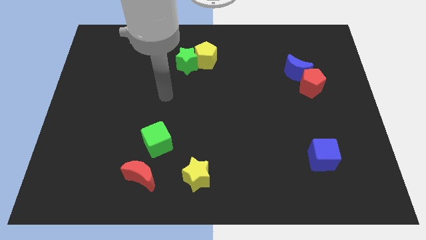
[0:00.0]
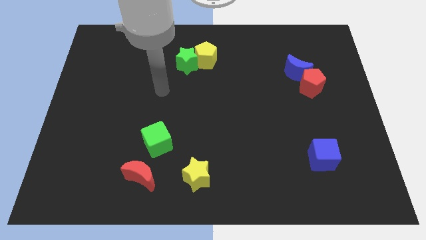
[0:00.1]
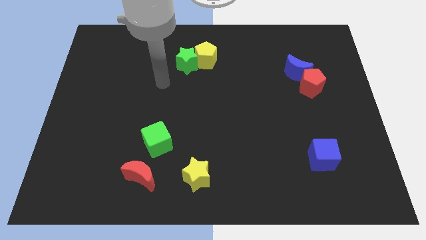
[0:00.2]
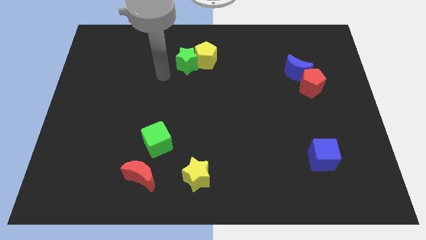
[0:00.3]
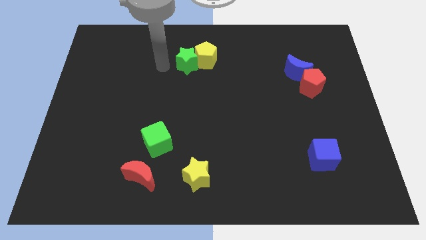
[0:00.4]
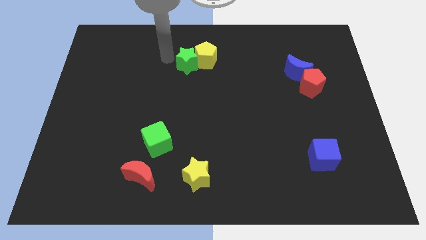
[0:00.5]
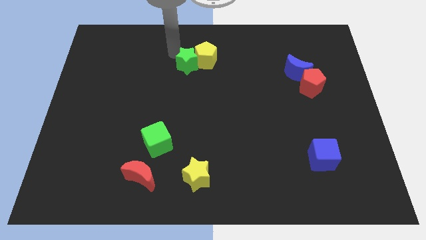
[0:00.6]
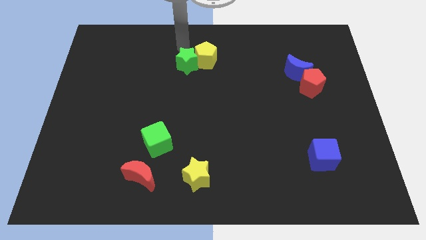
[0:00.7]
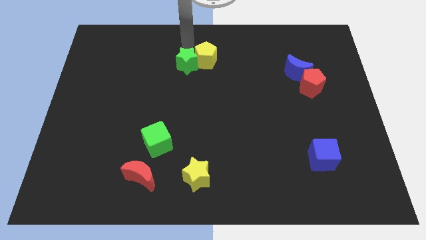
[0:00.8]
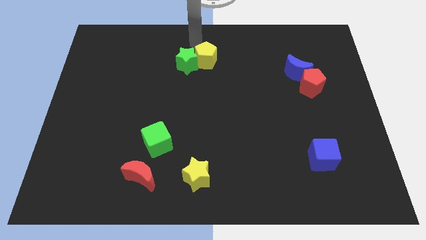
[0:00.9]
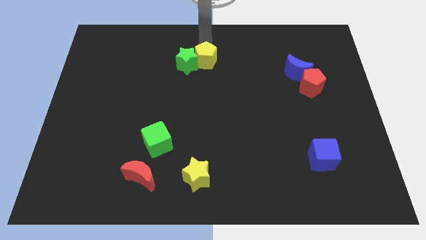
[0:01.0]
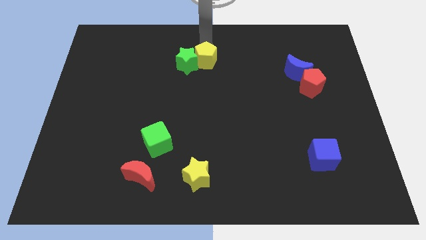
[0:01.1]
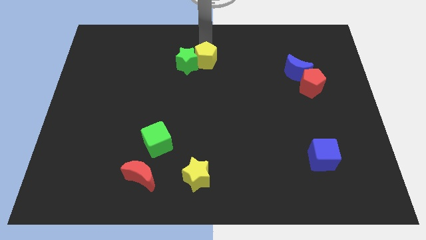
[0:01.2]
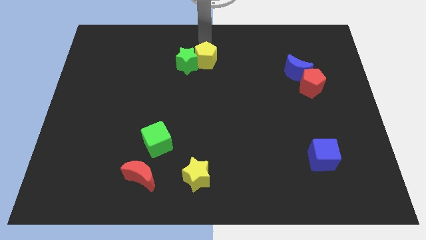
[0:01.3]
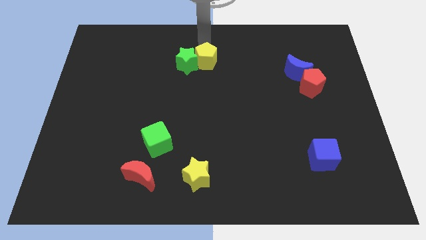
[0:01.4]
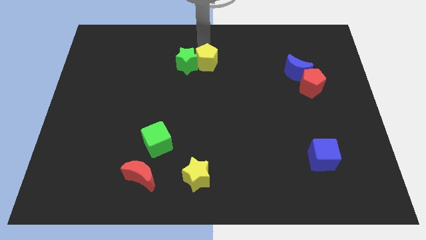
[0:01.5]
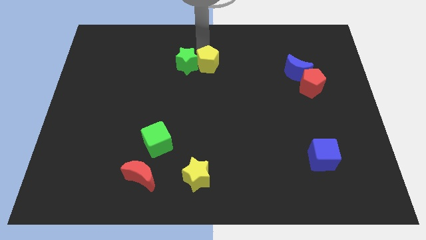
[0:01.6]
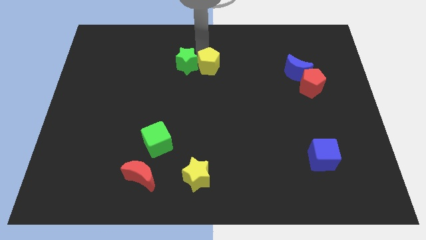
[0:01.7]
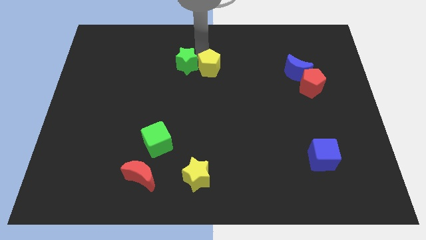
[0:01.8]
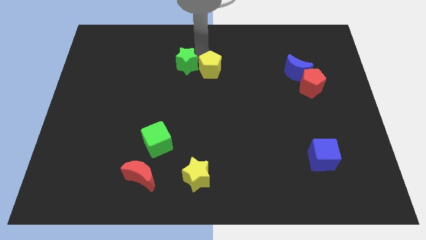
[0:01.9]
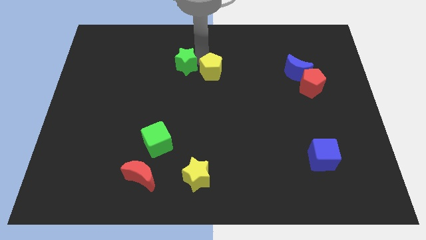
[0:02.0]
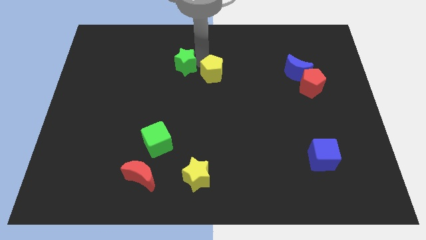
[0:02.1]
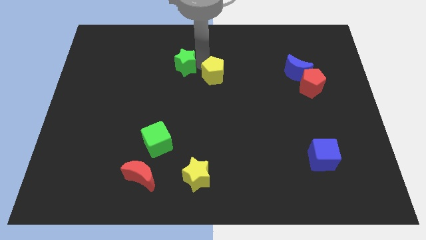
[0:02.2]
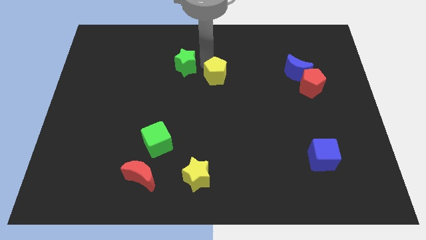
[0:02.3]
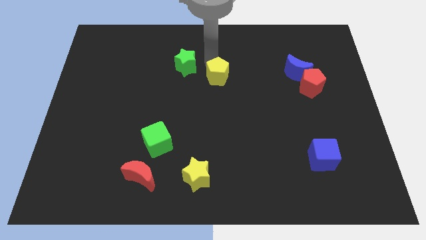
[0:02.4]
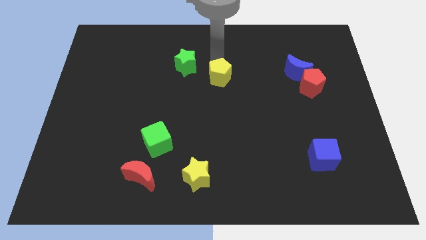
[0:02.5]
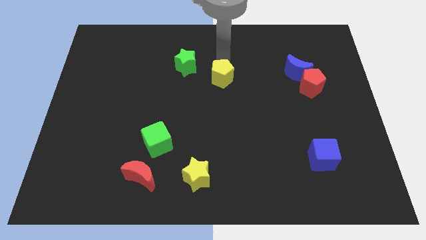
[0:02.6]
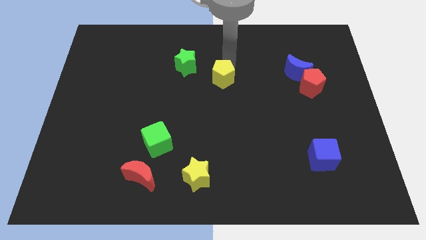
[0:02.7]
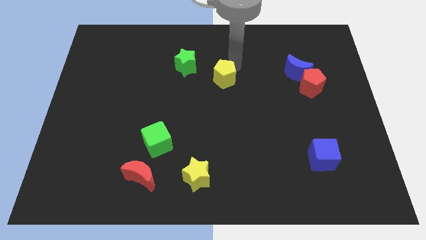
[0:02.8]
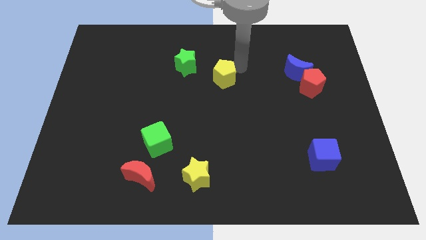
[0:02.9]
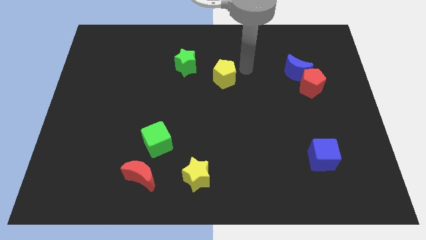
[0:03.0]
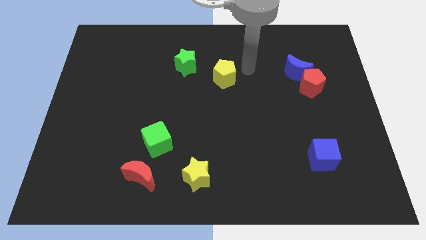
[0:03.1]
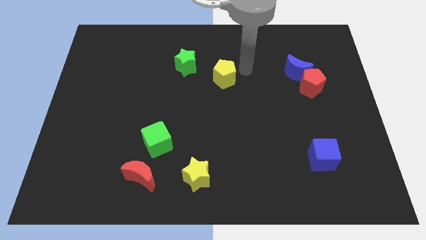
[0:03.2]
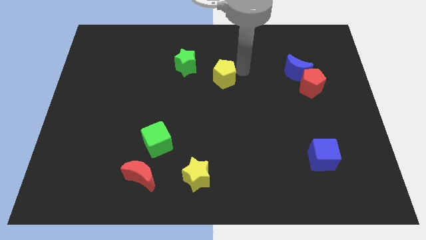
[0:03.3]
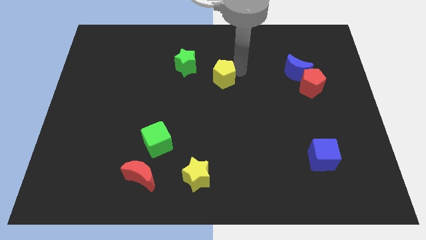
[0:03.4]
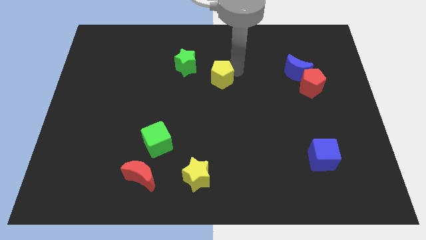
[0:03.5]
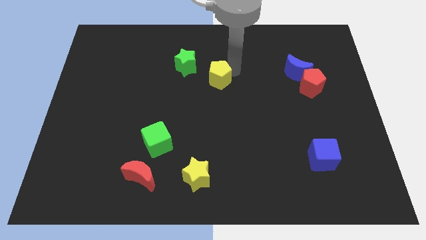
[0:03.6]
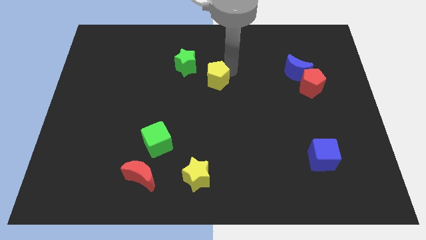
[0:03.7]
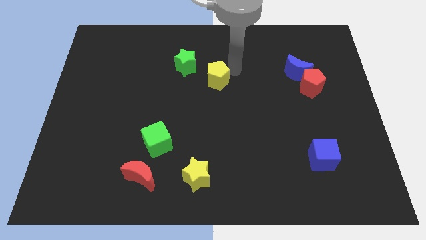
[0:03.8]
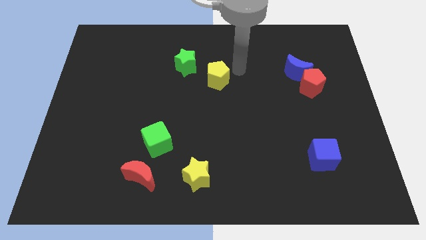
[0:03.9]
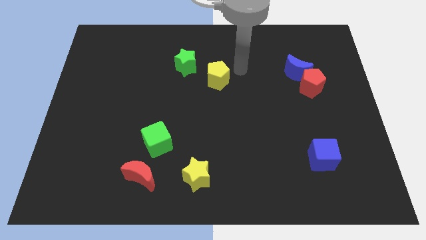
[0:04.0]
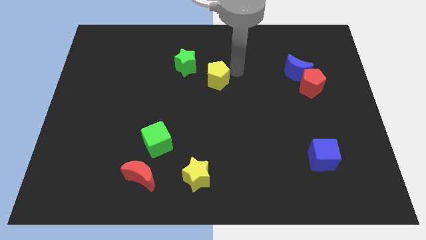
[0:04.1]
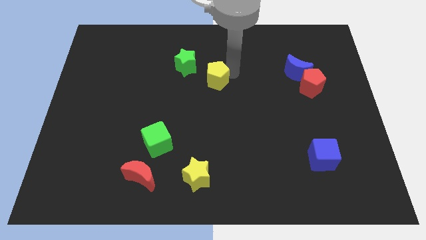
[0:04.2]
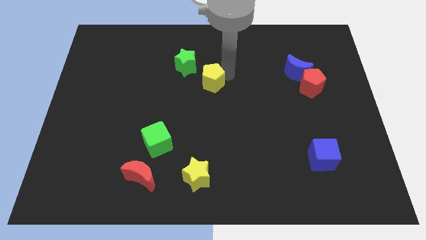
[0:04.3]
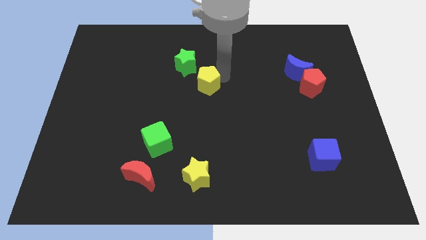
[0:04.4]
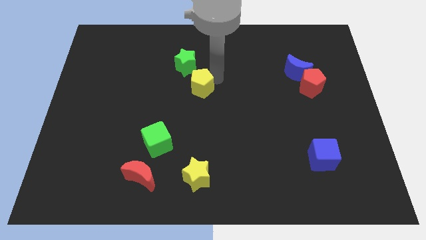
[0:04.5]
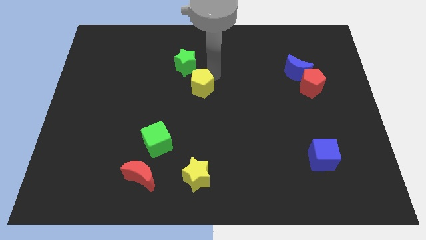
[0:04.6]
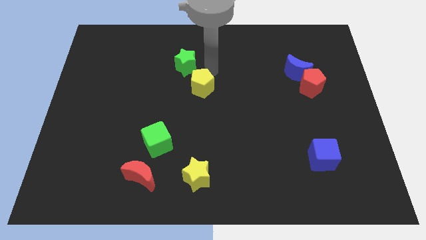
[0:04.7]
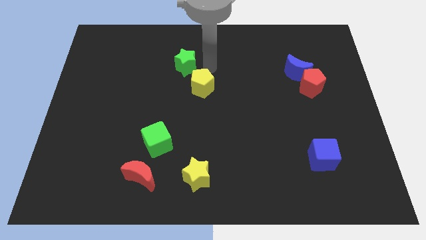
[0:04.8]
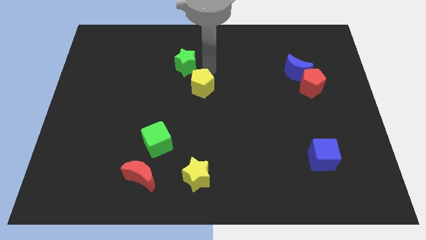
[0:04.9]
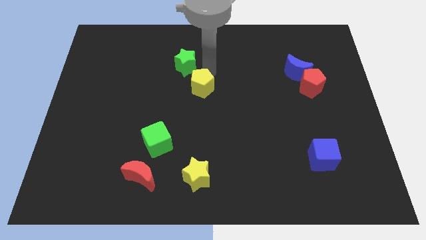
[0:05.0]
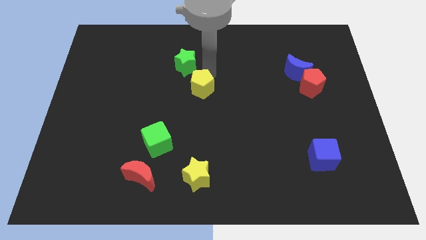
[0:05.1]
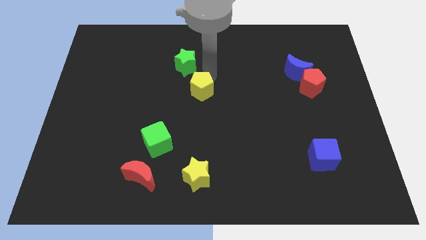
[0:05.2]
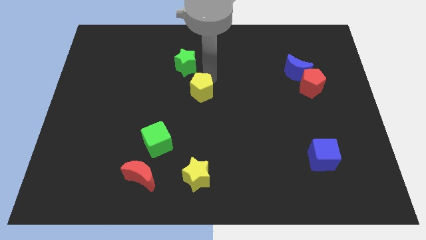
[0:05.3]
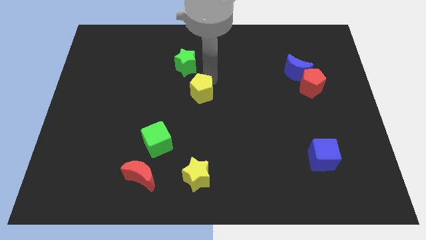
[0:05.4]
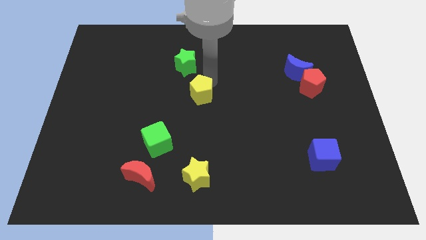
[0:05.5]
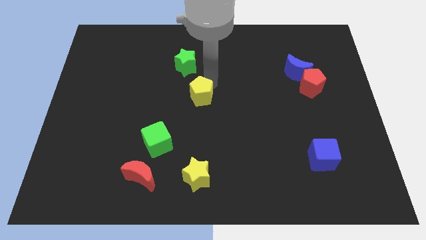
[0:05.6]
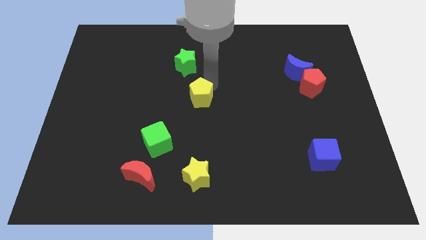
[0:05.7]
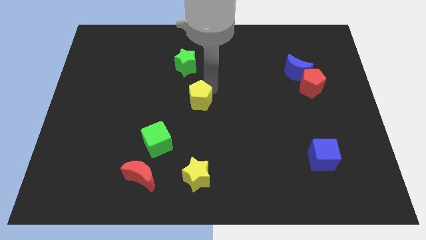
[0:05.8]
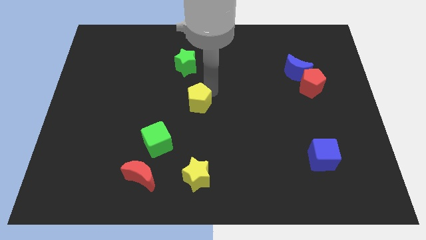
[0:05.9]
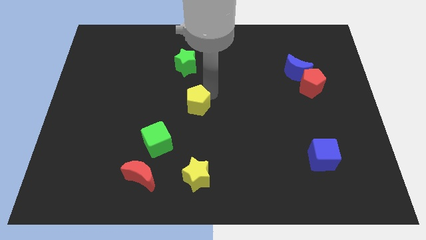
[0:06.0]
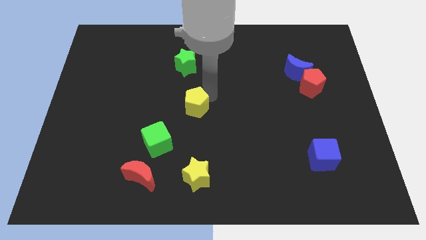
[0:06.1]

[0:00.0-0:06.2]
put the yellow pentagon to the top right of the green cube

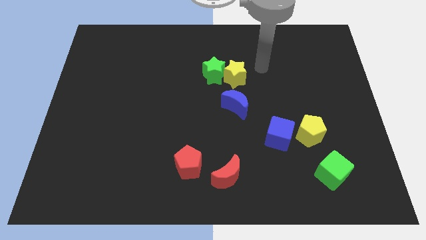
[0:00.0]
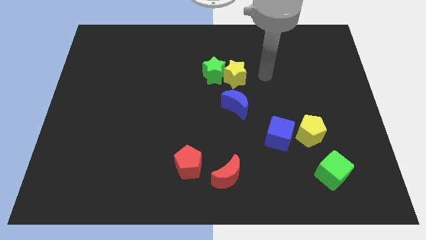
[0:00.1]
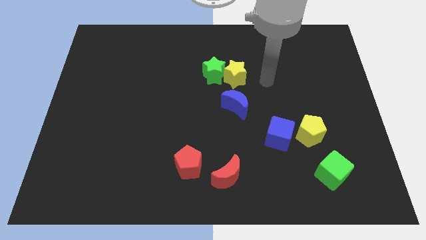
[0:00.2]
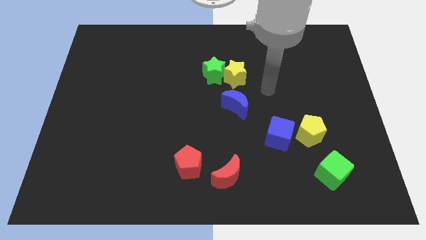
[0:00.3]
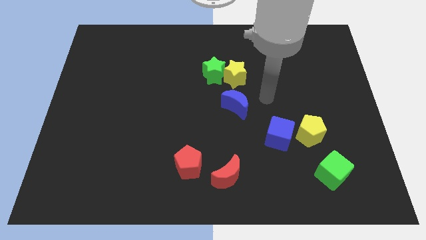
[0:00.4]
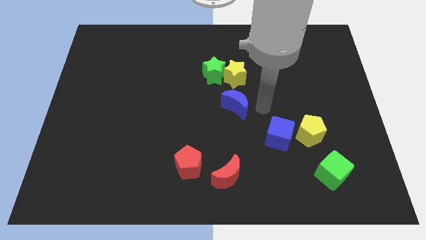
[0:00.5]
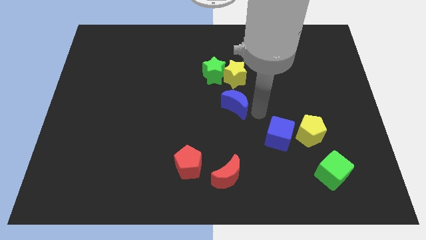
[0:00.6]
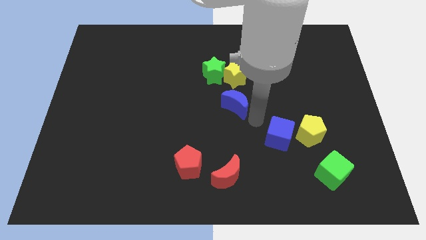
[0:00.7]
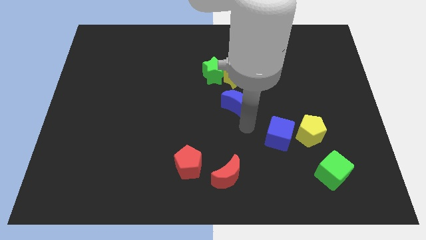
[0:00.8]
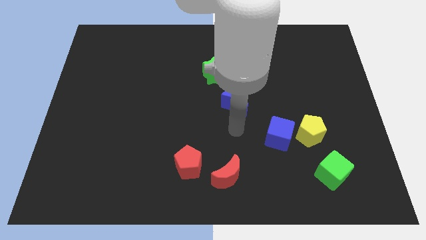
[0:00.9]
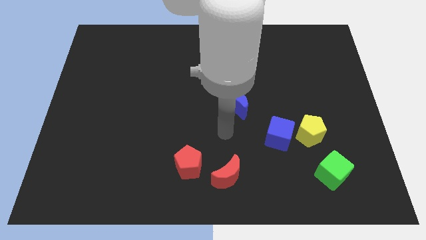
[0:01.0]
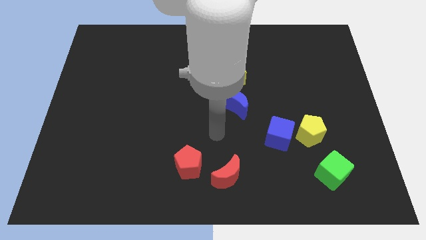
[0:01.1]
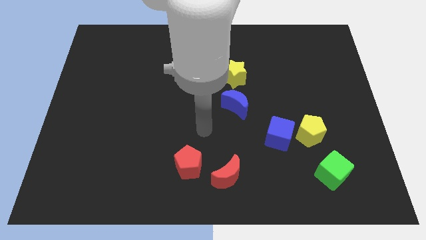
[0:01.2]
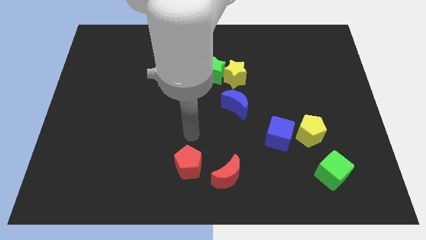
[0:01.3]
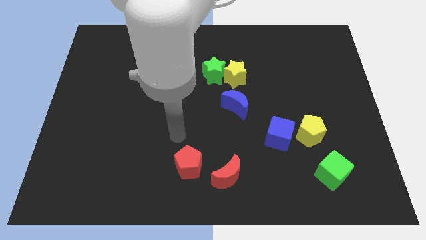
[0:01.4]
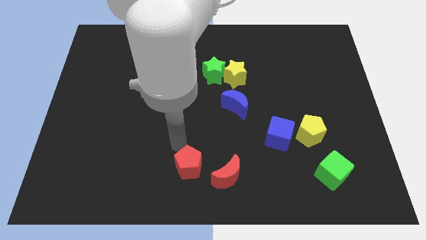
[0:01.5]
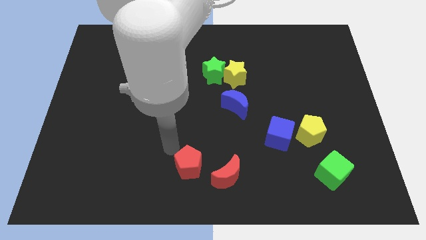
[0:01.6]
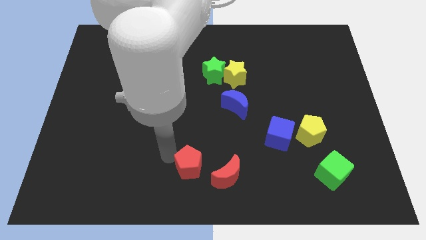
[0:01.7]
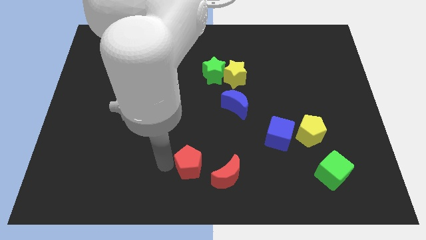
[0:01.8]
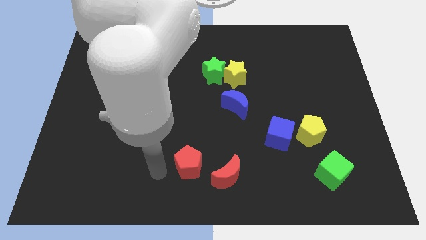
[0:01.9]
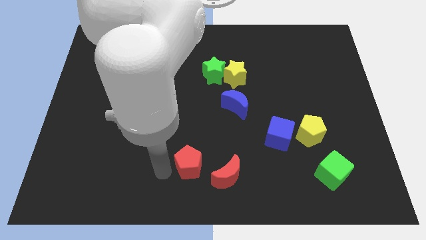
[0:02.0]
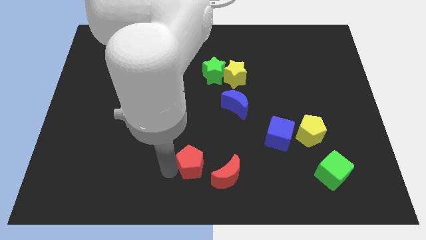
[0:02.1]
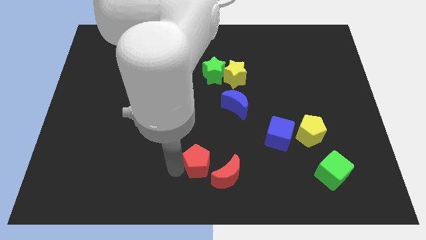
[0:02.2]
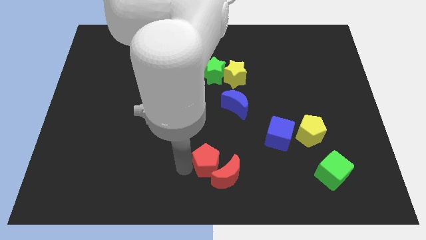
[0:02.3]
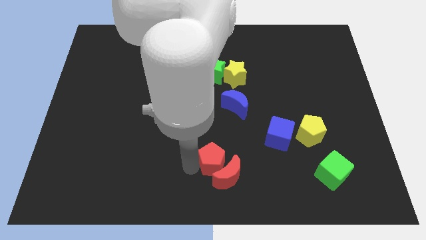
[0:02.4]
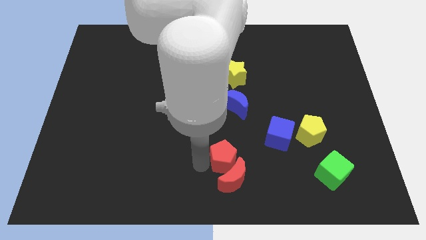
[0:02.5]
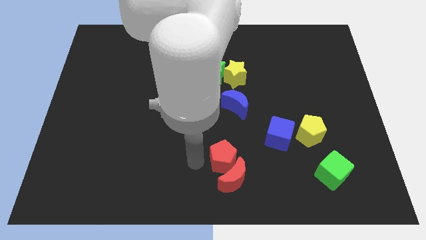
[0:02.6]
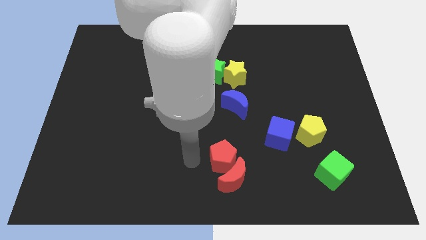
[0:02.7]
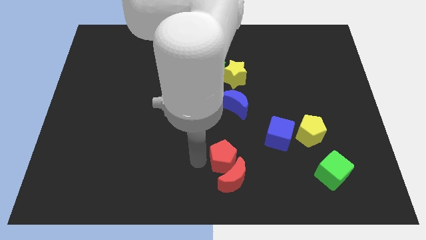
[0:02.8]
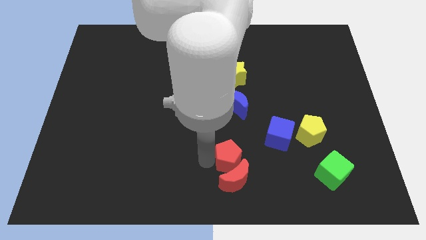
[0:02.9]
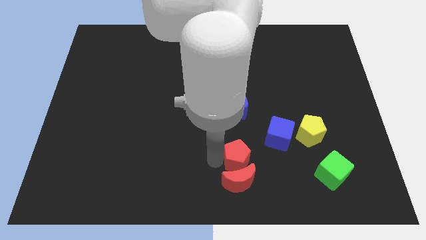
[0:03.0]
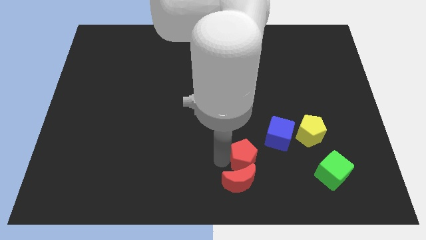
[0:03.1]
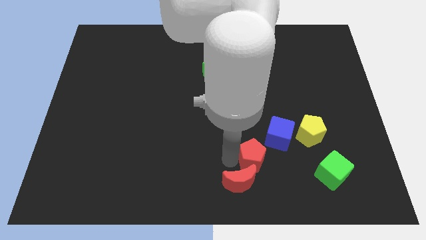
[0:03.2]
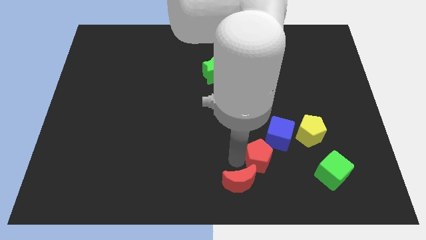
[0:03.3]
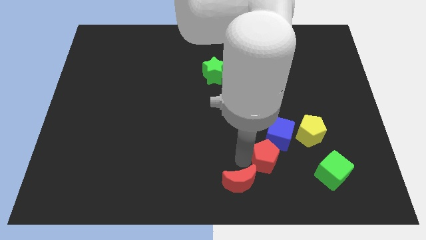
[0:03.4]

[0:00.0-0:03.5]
move the red pentagon diagonally down and to the left of the yellow pentagon
